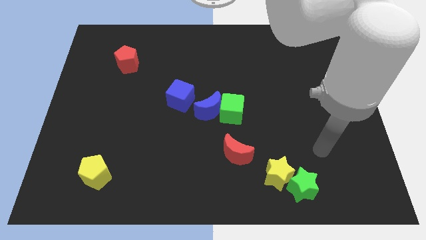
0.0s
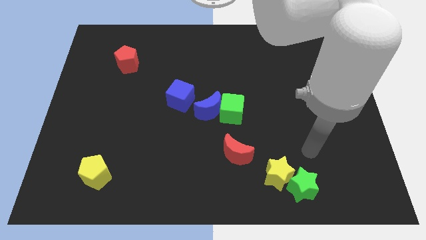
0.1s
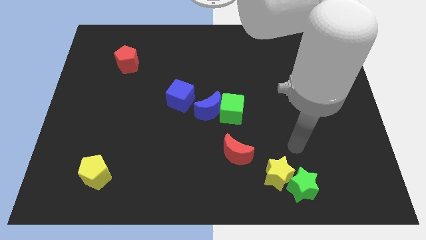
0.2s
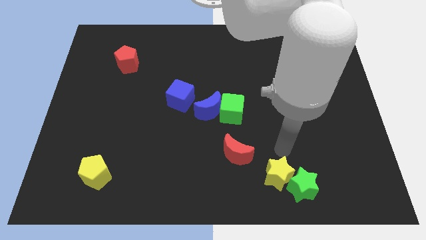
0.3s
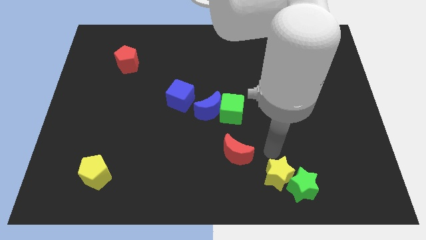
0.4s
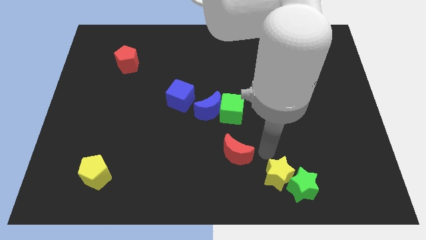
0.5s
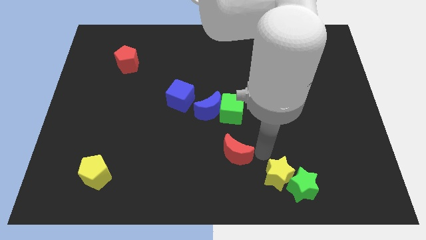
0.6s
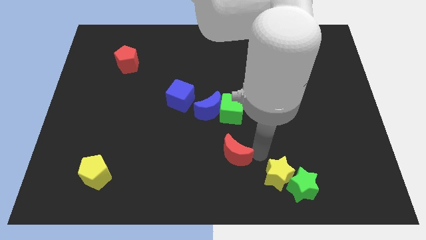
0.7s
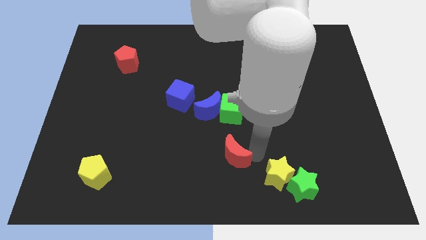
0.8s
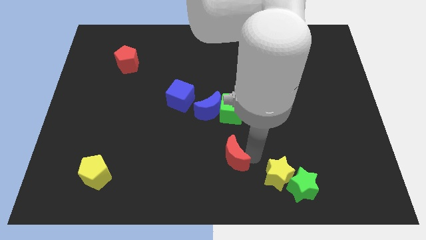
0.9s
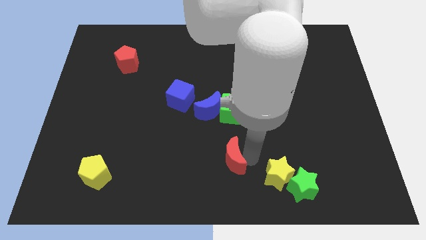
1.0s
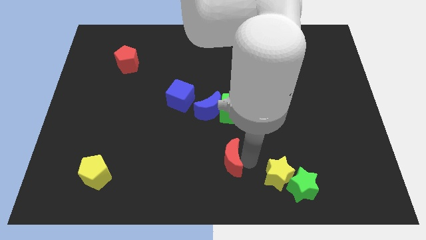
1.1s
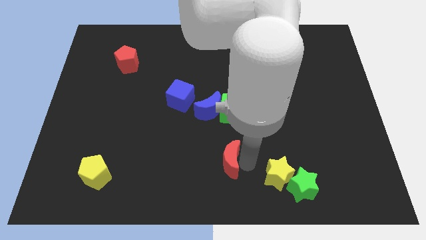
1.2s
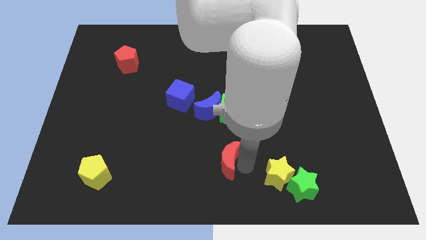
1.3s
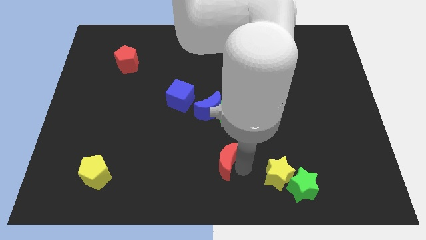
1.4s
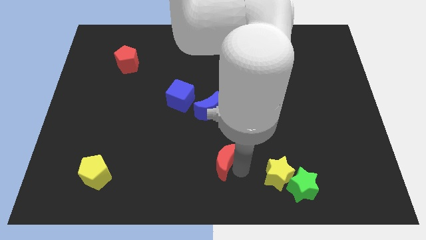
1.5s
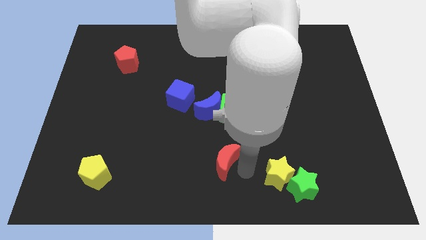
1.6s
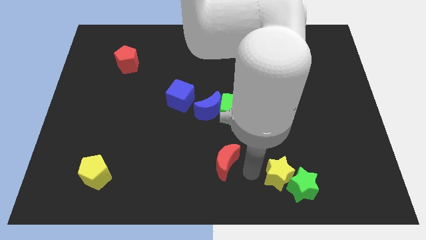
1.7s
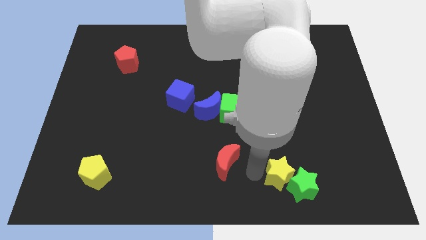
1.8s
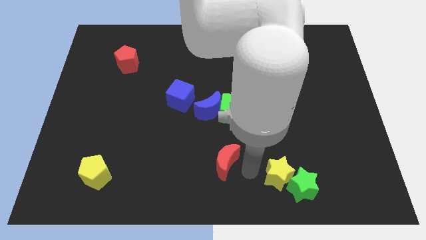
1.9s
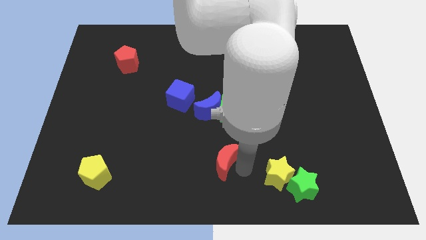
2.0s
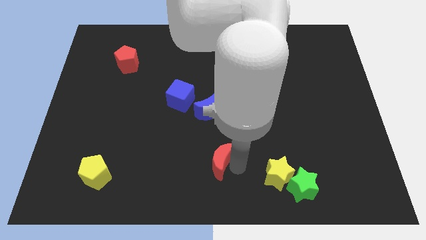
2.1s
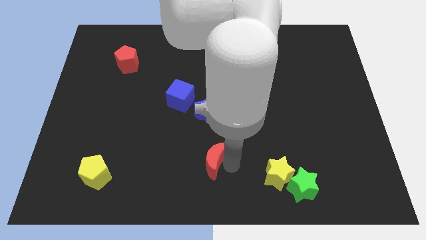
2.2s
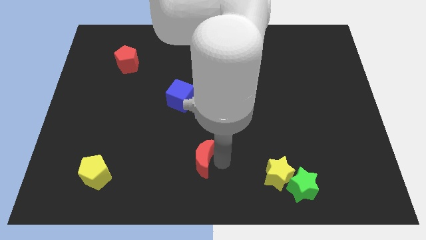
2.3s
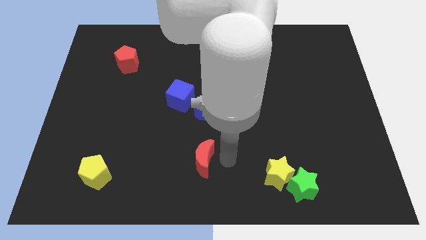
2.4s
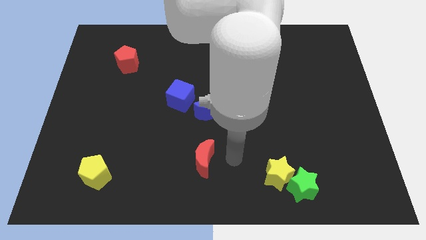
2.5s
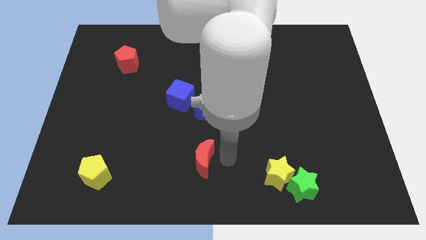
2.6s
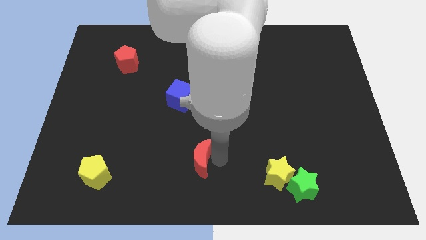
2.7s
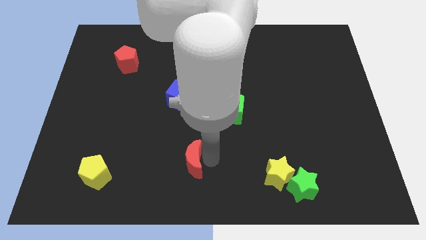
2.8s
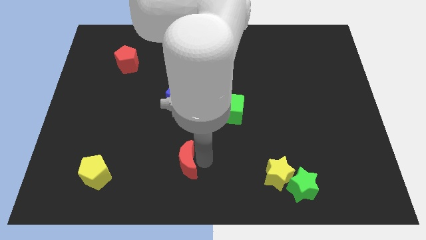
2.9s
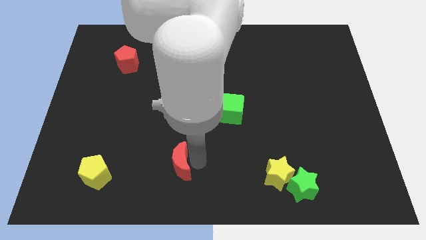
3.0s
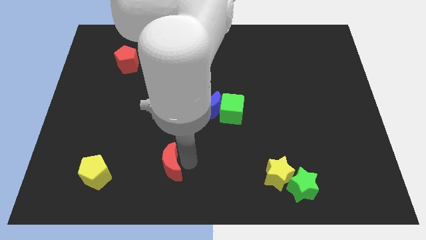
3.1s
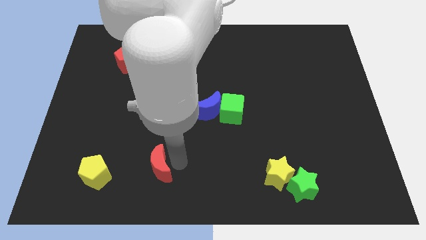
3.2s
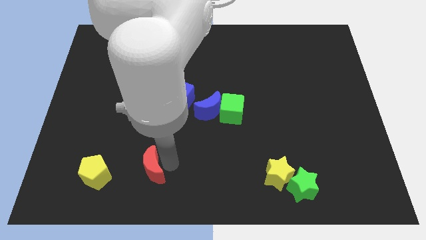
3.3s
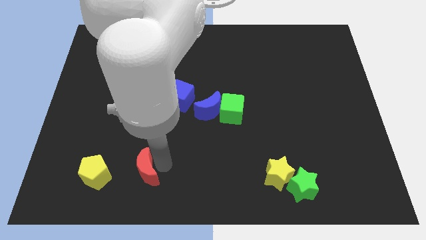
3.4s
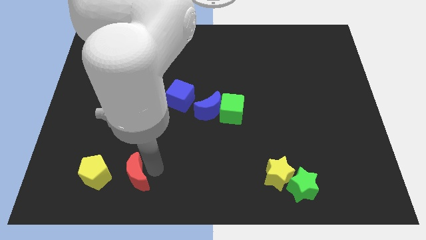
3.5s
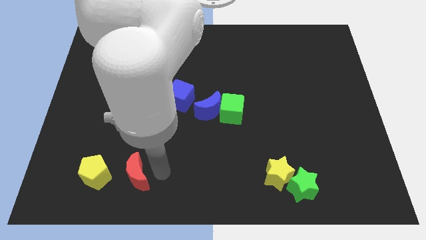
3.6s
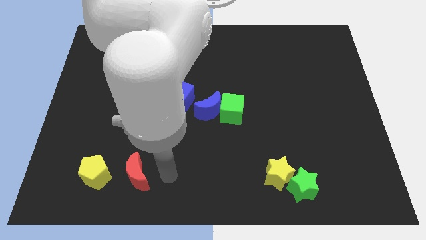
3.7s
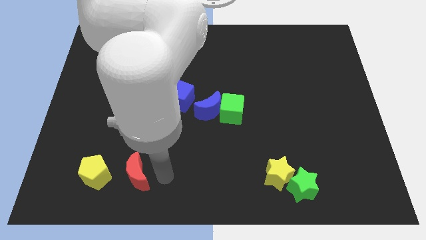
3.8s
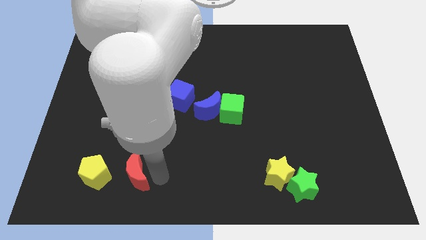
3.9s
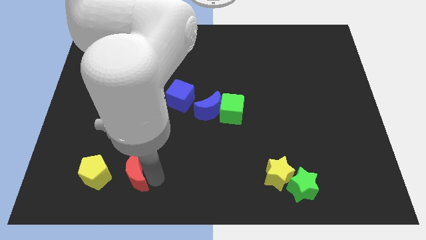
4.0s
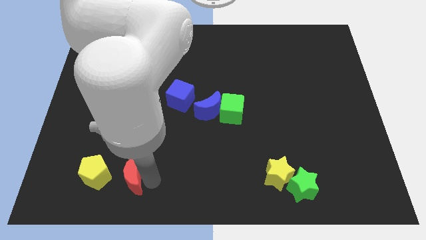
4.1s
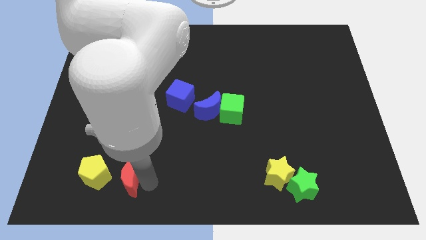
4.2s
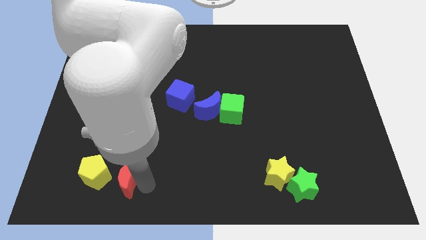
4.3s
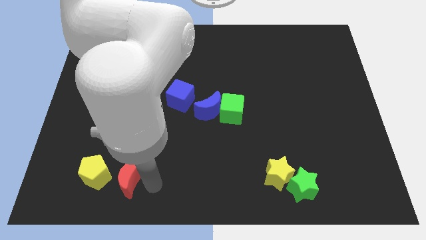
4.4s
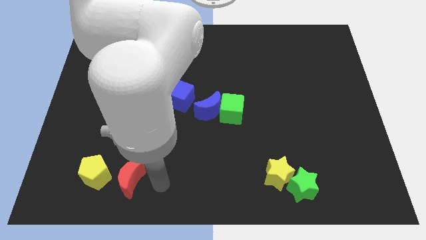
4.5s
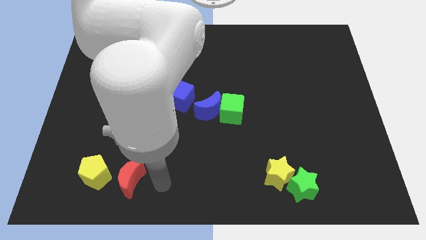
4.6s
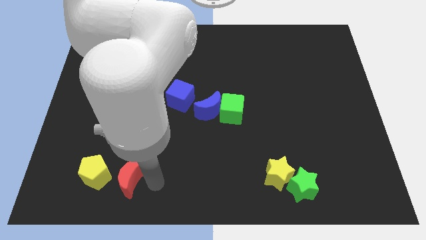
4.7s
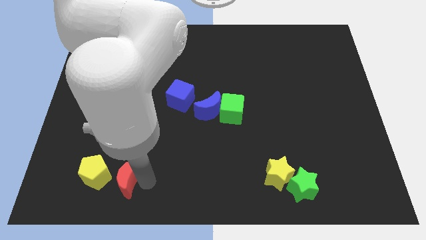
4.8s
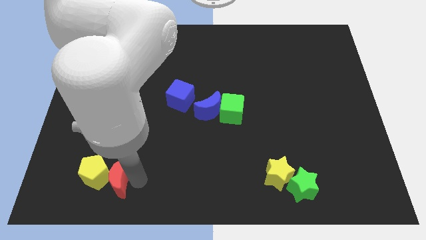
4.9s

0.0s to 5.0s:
put the red moon to the yellow pentagon

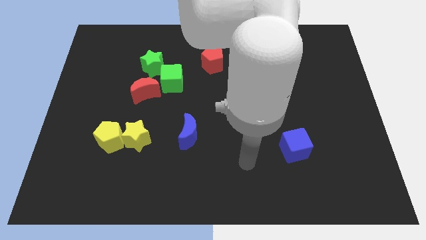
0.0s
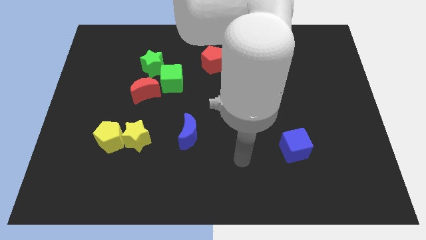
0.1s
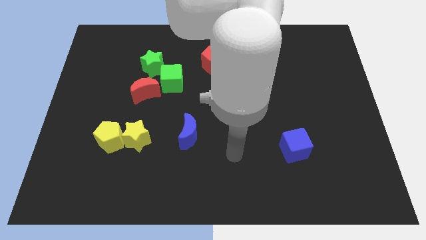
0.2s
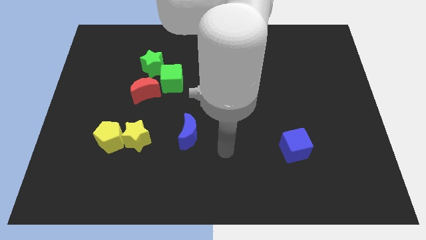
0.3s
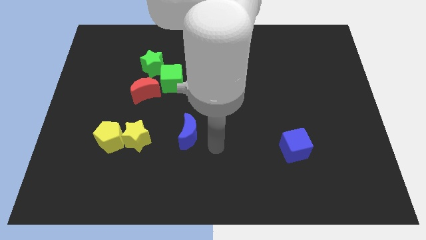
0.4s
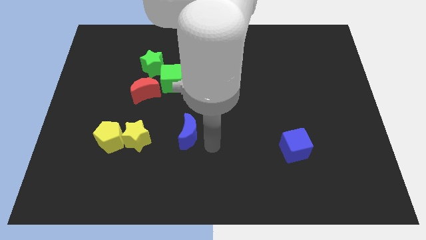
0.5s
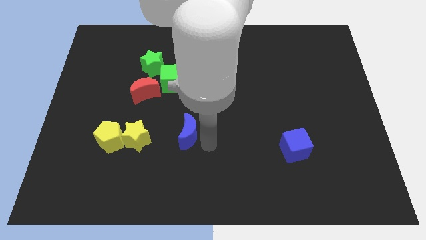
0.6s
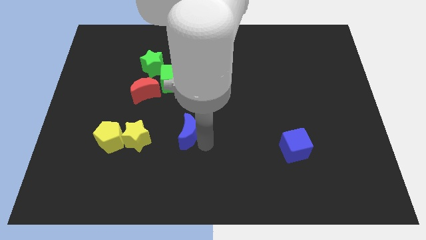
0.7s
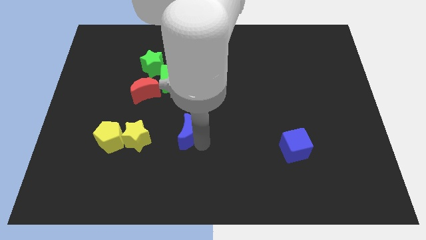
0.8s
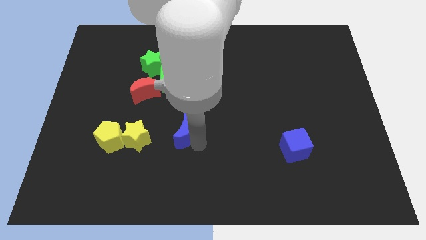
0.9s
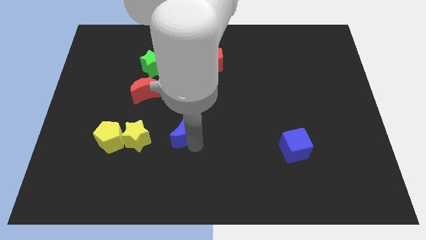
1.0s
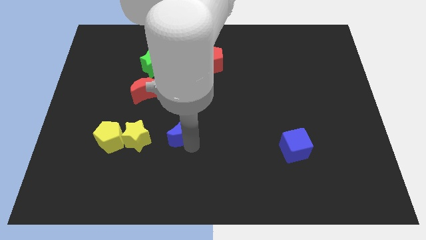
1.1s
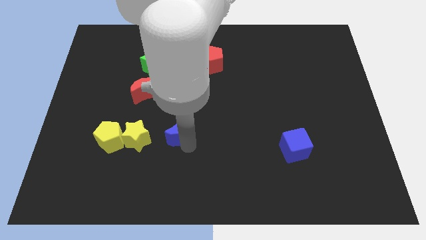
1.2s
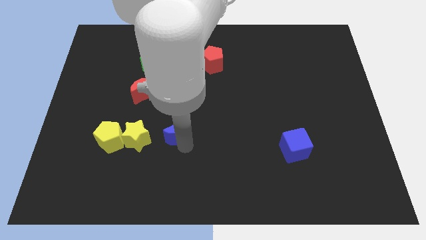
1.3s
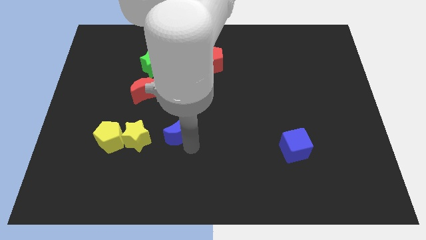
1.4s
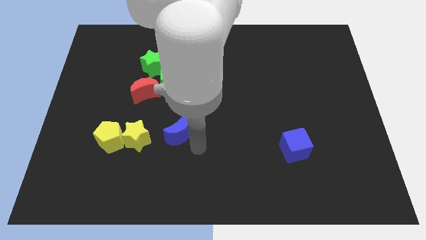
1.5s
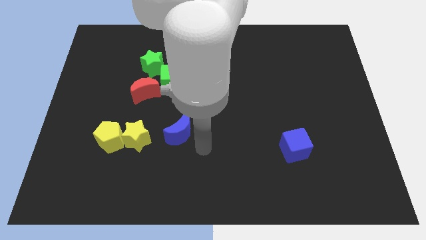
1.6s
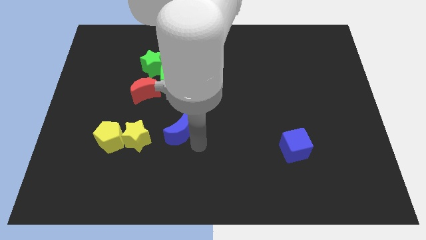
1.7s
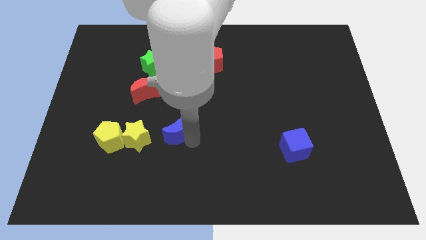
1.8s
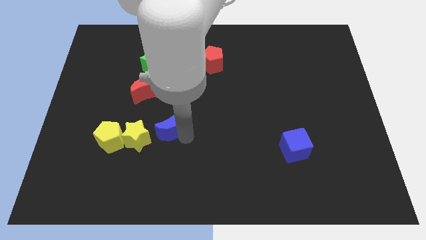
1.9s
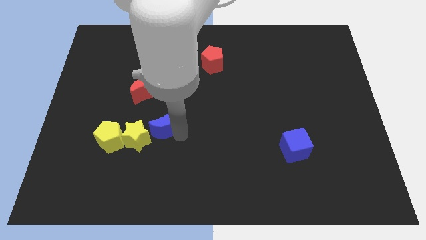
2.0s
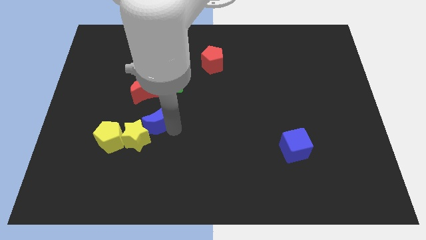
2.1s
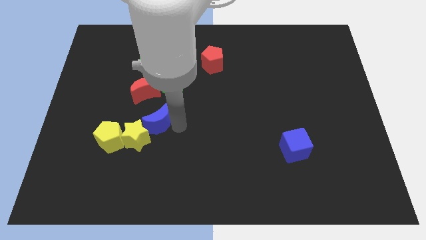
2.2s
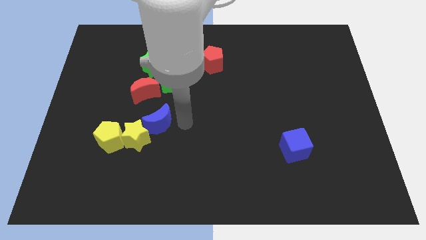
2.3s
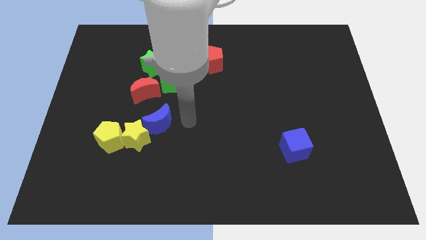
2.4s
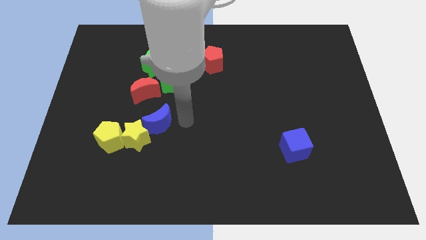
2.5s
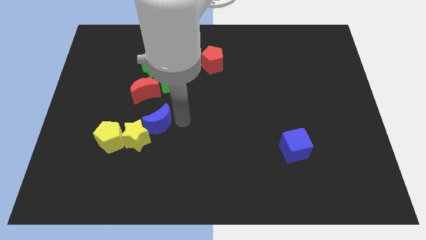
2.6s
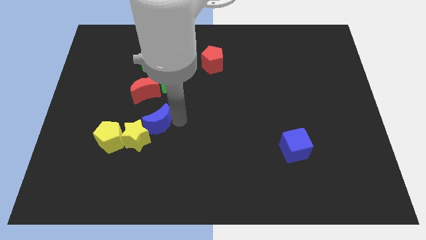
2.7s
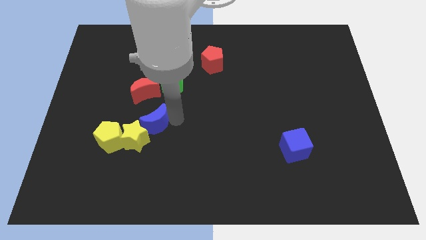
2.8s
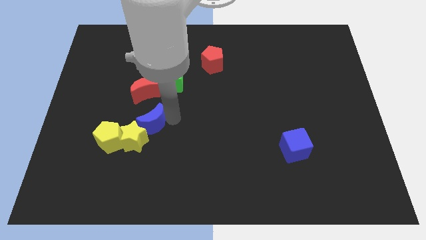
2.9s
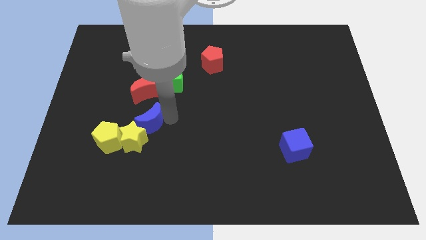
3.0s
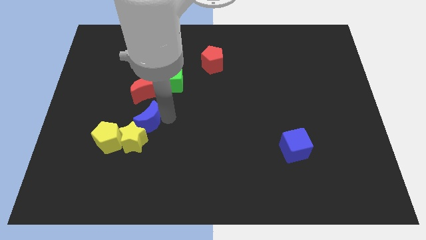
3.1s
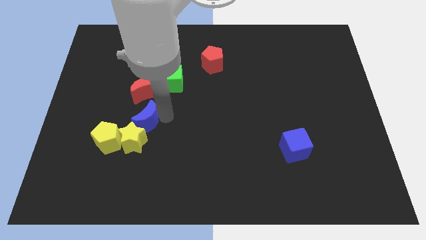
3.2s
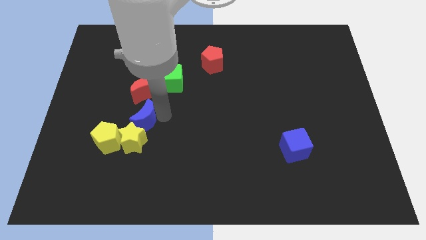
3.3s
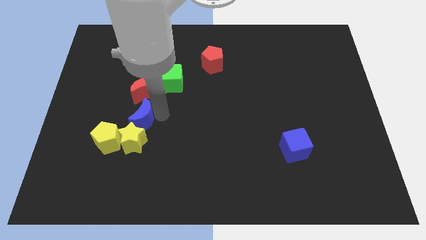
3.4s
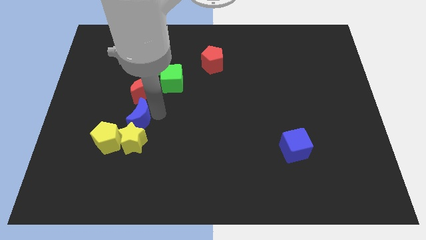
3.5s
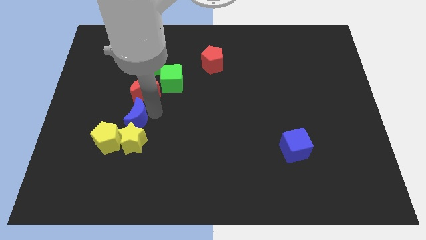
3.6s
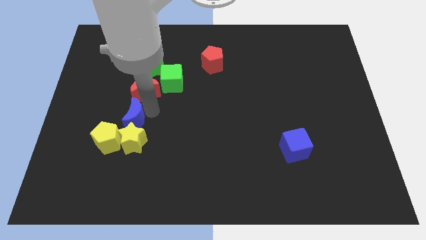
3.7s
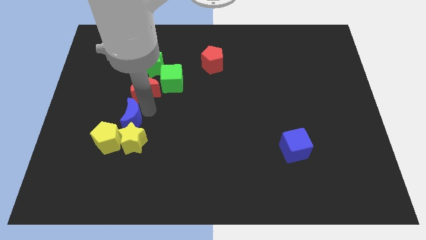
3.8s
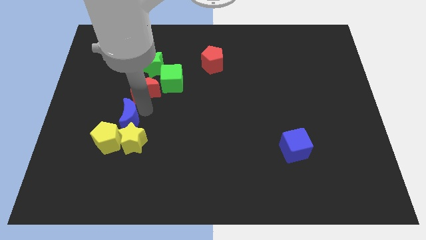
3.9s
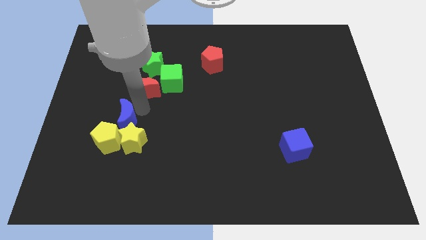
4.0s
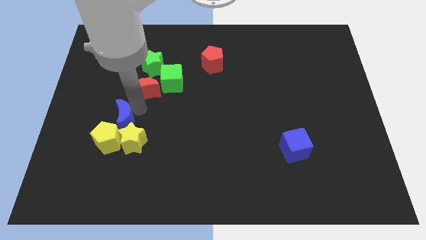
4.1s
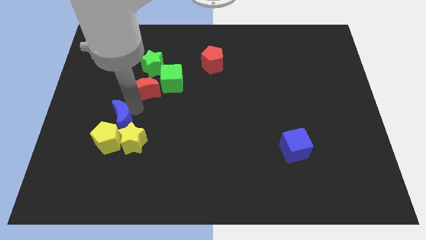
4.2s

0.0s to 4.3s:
move the blue moon to the yellow pentagon
